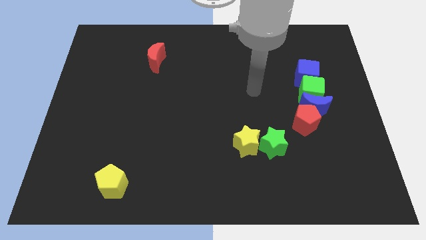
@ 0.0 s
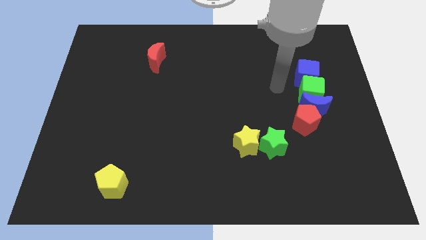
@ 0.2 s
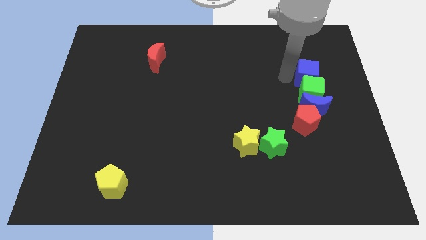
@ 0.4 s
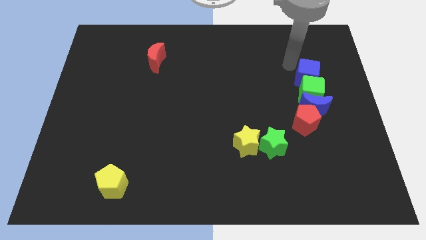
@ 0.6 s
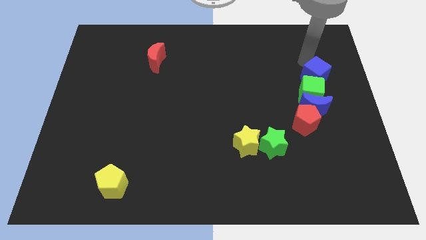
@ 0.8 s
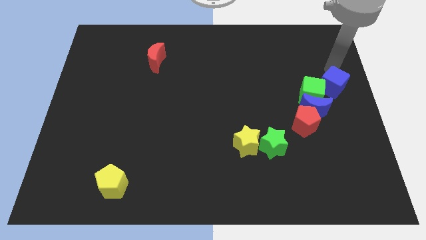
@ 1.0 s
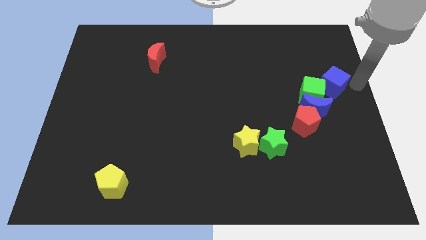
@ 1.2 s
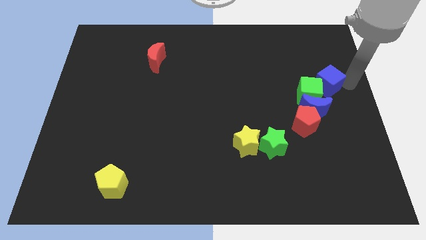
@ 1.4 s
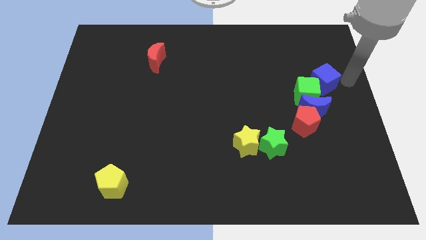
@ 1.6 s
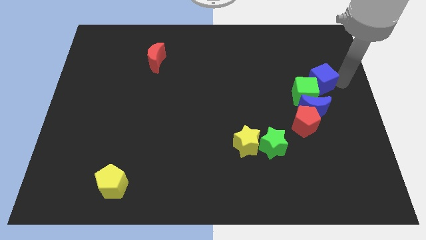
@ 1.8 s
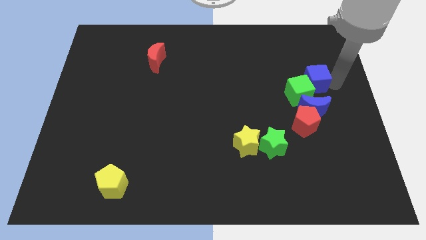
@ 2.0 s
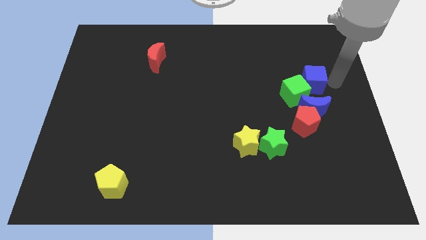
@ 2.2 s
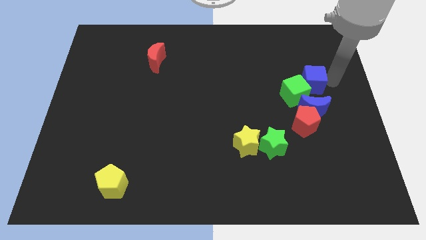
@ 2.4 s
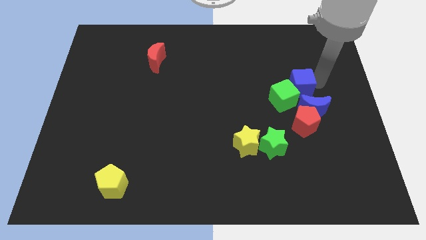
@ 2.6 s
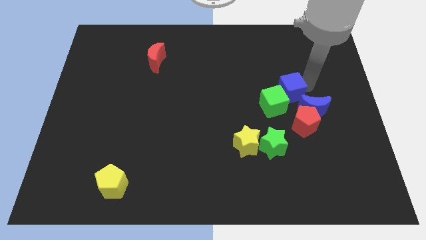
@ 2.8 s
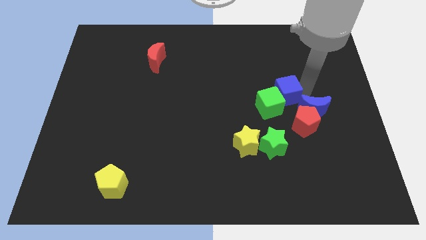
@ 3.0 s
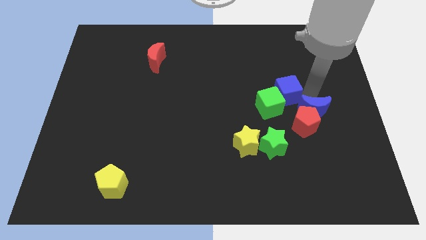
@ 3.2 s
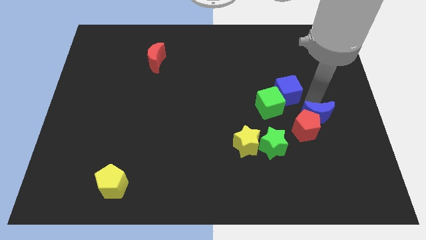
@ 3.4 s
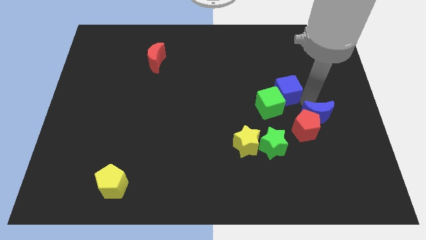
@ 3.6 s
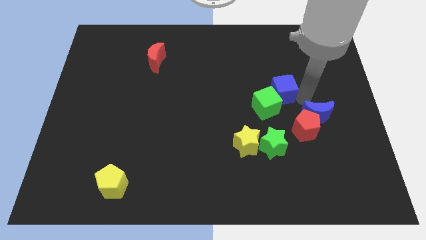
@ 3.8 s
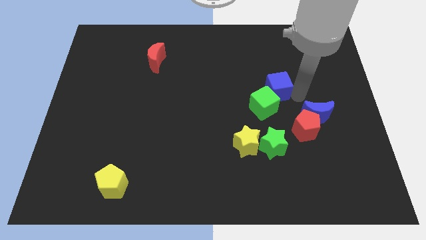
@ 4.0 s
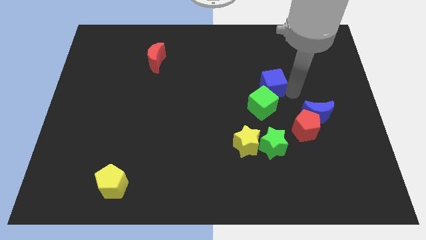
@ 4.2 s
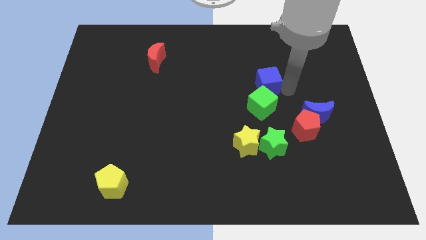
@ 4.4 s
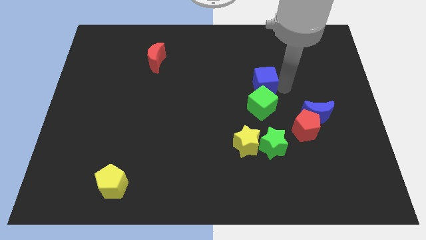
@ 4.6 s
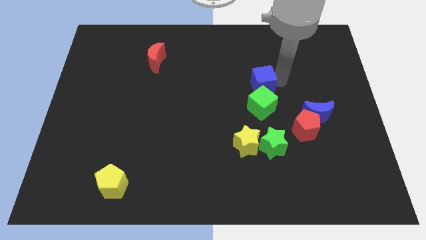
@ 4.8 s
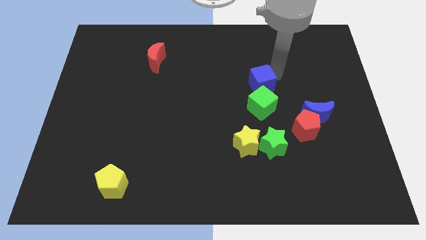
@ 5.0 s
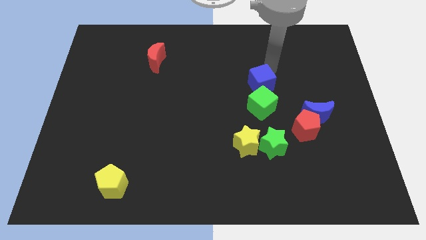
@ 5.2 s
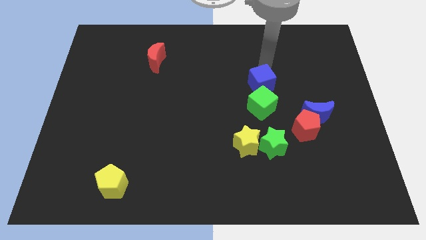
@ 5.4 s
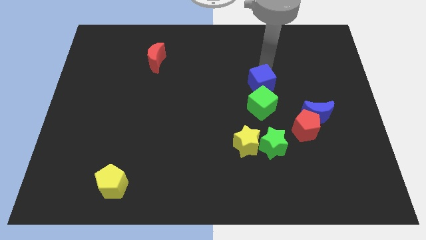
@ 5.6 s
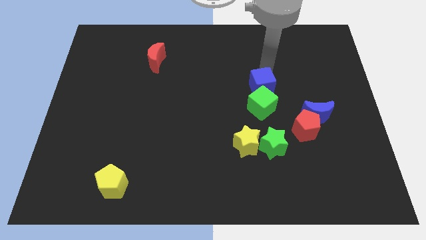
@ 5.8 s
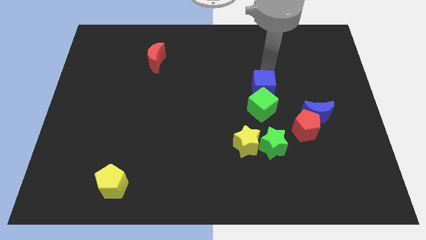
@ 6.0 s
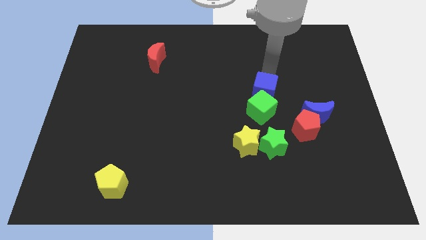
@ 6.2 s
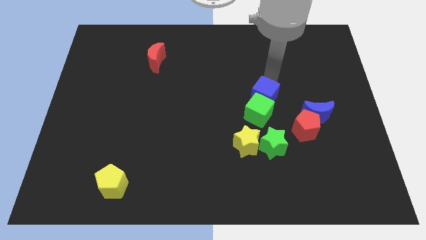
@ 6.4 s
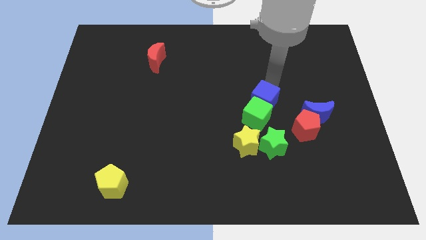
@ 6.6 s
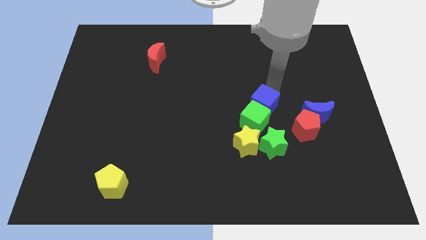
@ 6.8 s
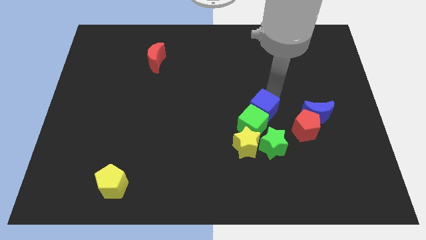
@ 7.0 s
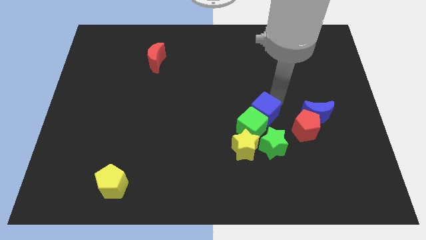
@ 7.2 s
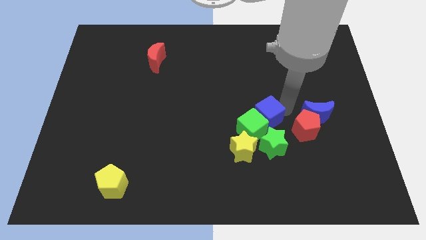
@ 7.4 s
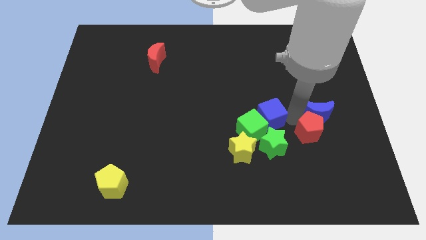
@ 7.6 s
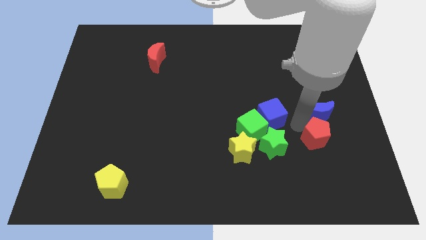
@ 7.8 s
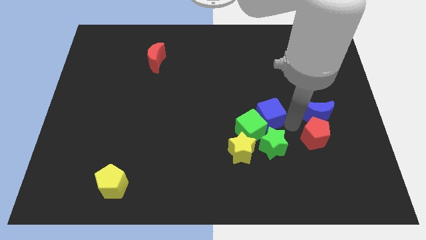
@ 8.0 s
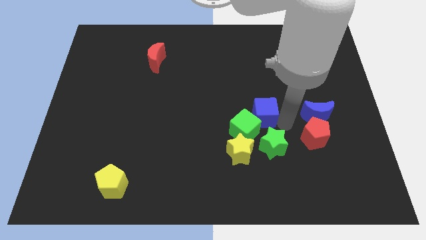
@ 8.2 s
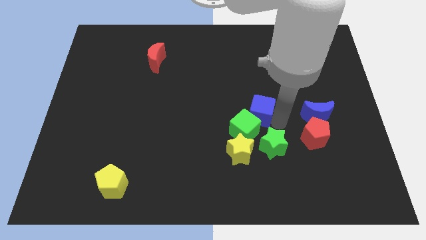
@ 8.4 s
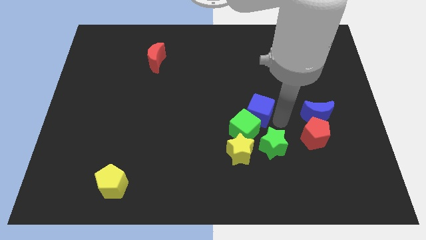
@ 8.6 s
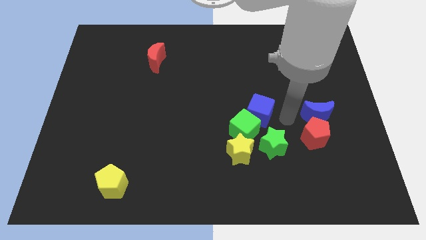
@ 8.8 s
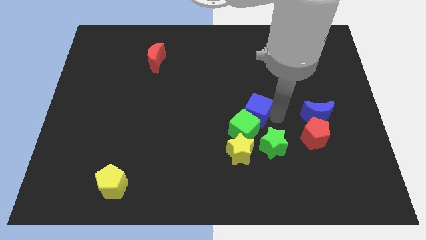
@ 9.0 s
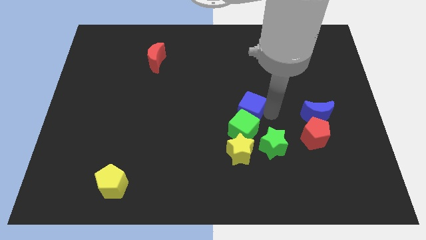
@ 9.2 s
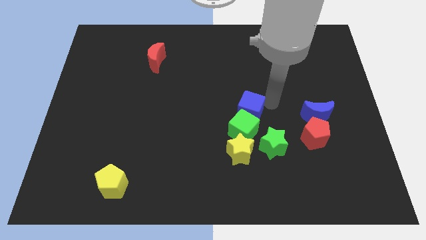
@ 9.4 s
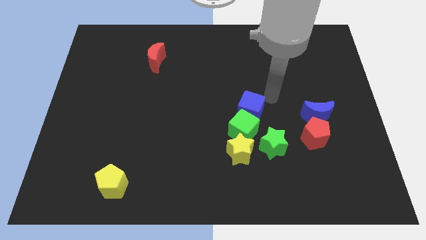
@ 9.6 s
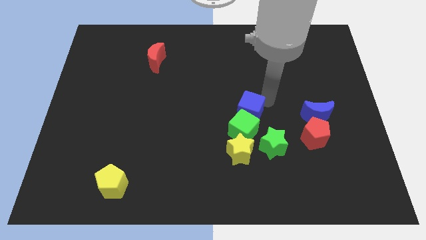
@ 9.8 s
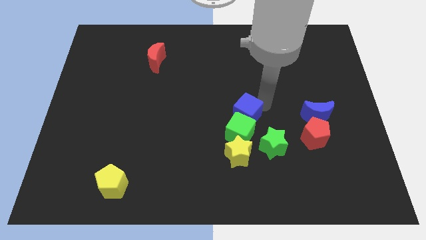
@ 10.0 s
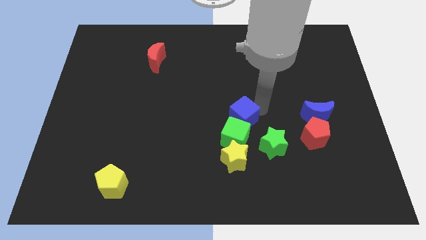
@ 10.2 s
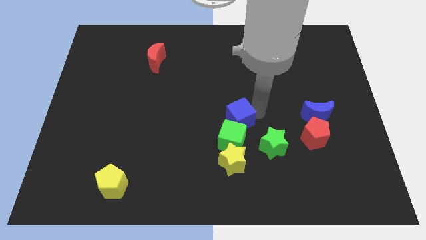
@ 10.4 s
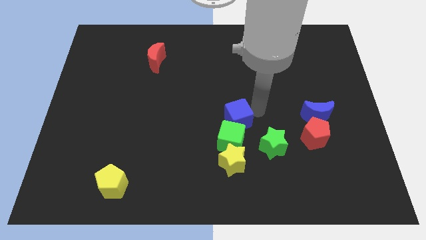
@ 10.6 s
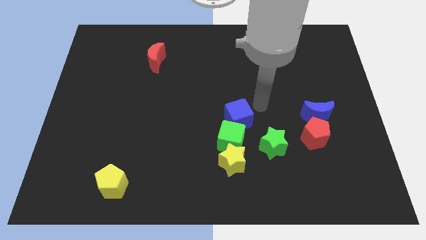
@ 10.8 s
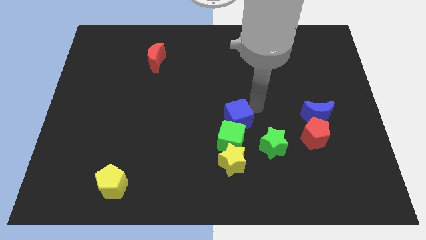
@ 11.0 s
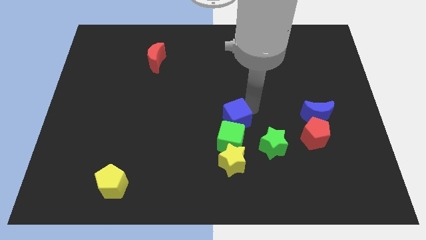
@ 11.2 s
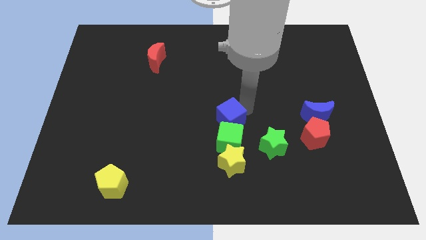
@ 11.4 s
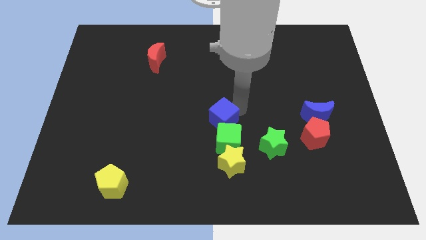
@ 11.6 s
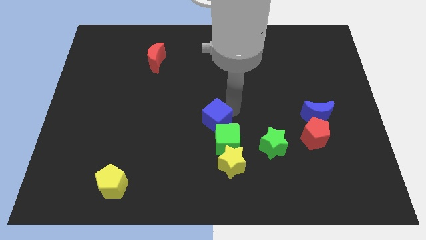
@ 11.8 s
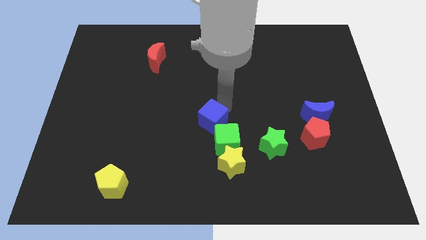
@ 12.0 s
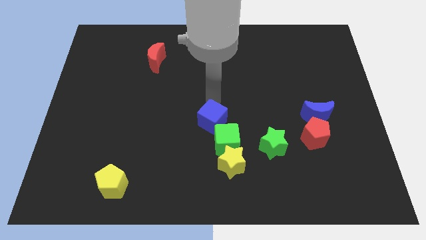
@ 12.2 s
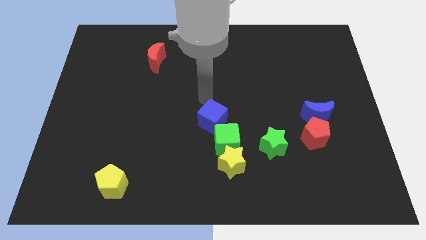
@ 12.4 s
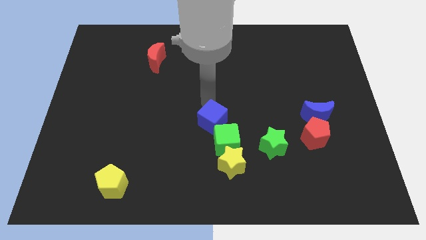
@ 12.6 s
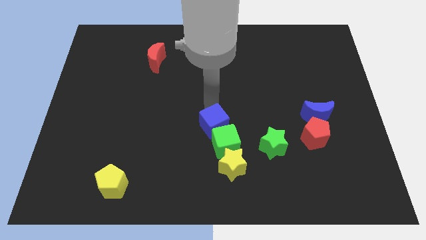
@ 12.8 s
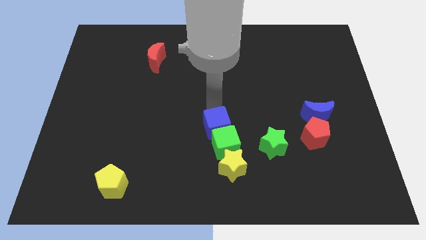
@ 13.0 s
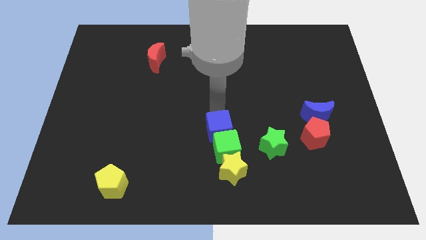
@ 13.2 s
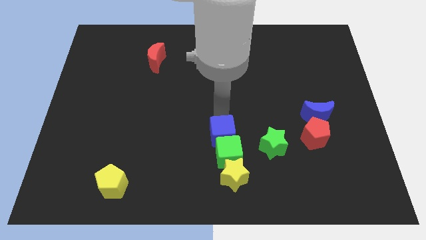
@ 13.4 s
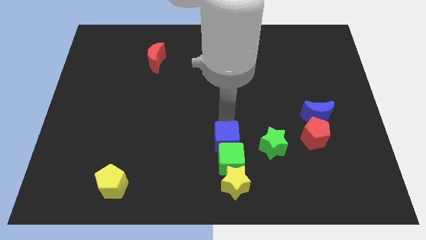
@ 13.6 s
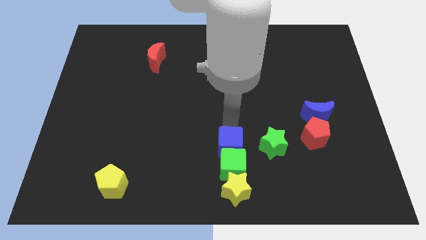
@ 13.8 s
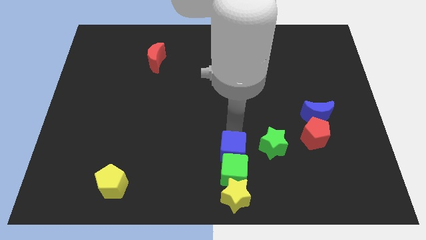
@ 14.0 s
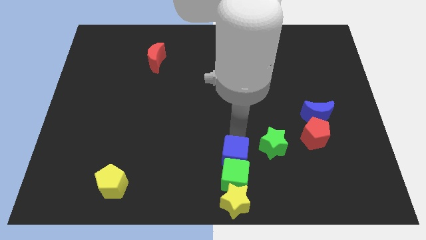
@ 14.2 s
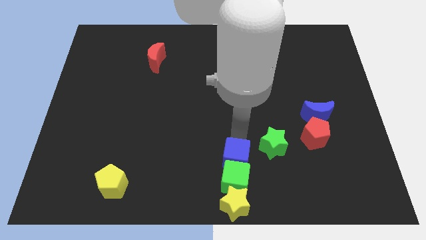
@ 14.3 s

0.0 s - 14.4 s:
put the blue cube to the bottom
